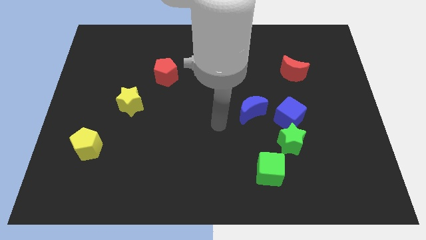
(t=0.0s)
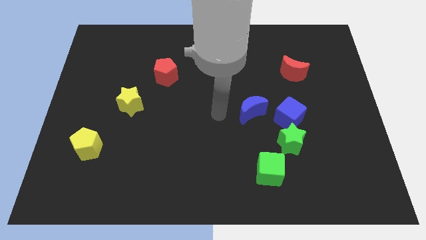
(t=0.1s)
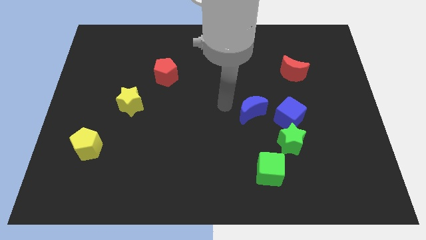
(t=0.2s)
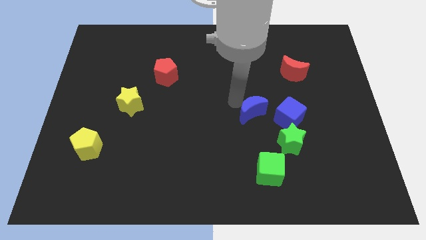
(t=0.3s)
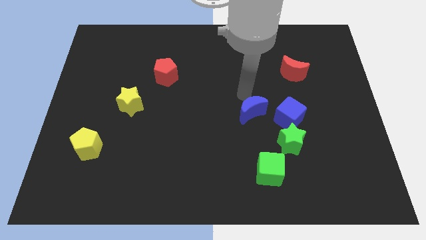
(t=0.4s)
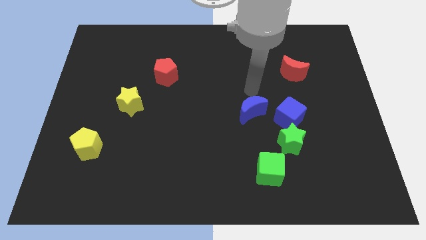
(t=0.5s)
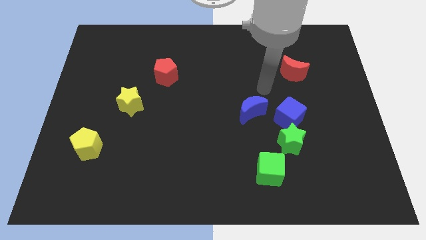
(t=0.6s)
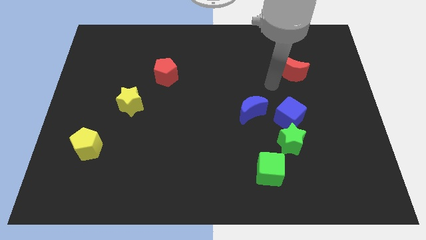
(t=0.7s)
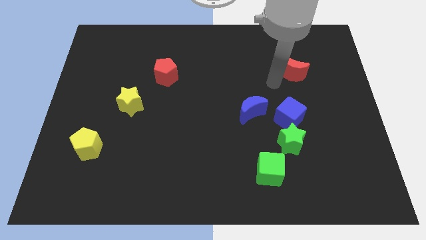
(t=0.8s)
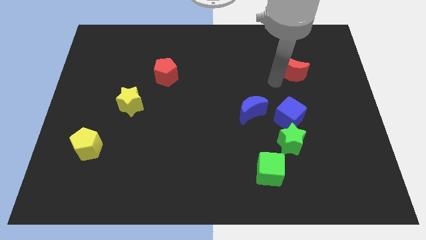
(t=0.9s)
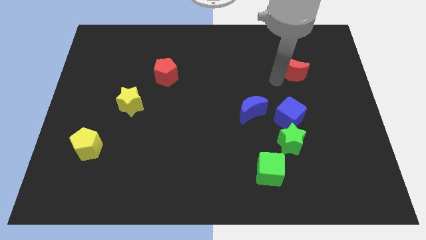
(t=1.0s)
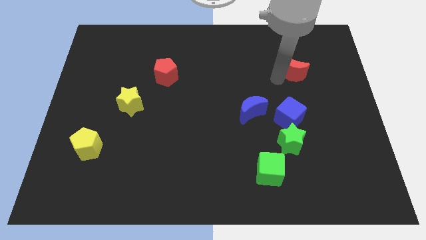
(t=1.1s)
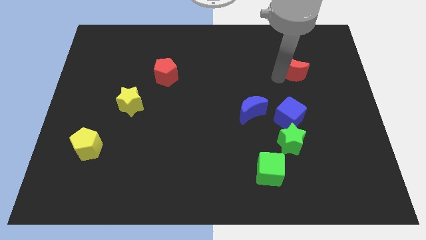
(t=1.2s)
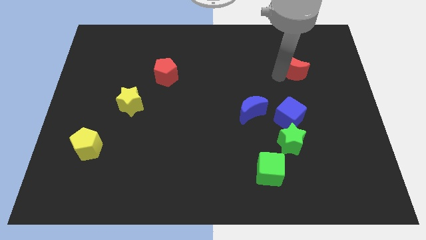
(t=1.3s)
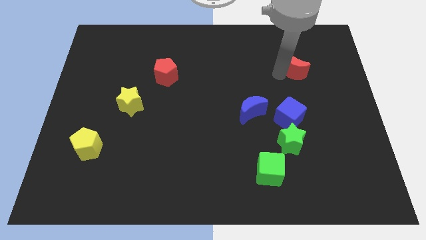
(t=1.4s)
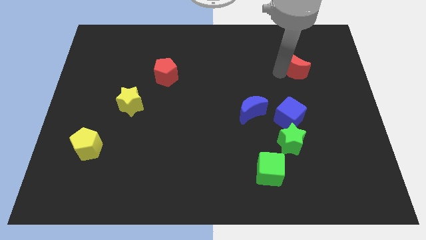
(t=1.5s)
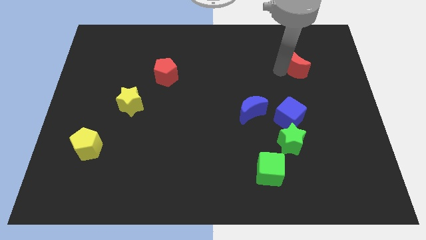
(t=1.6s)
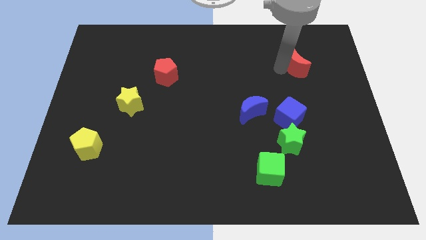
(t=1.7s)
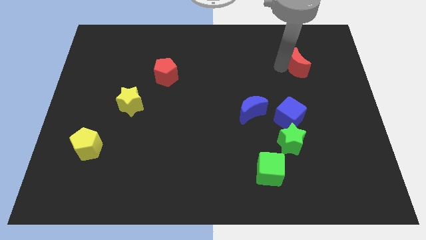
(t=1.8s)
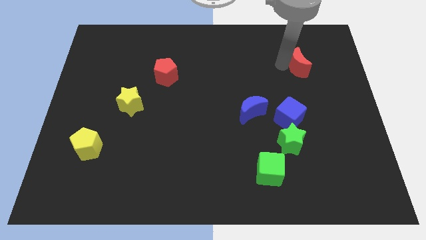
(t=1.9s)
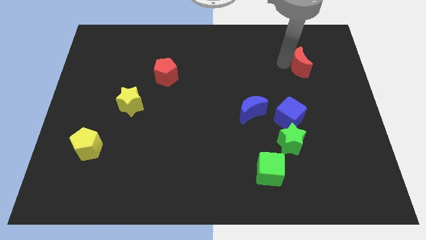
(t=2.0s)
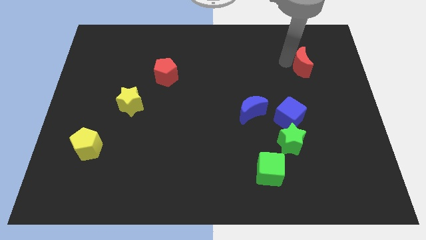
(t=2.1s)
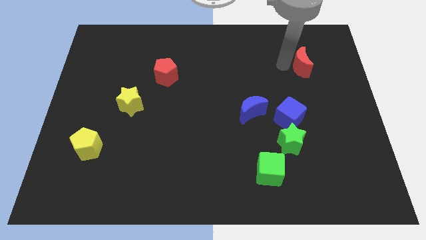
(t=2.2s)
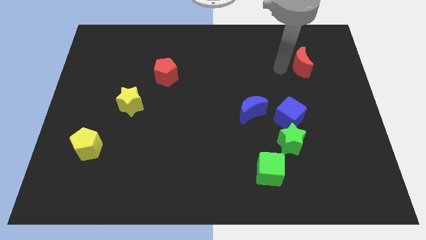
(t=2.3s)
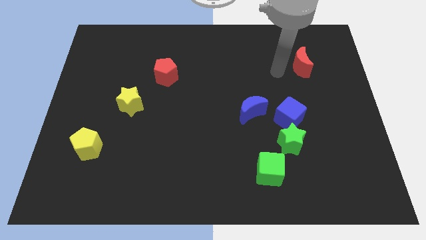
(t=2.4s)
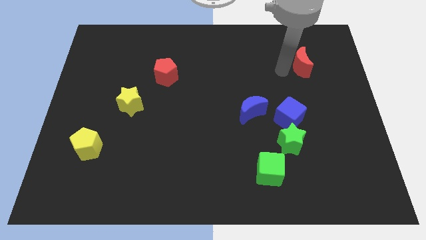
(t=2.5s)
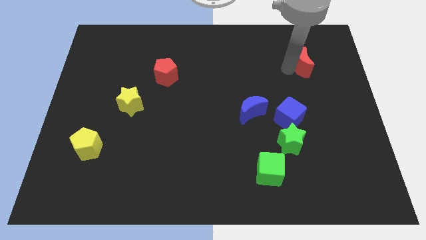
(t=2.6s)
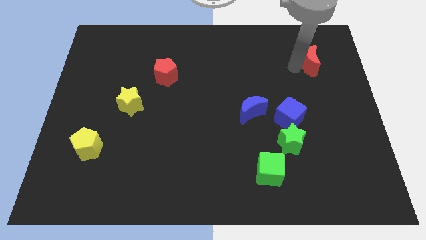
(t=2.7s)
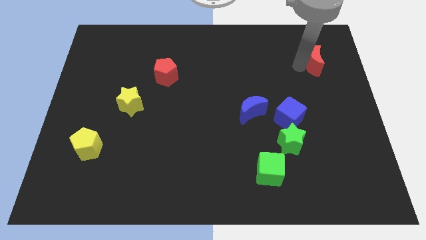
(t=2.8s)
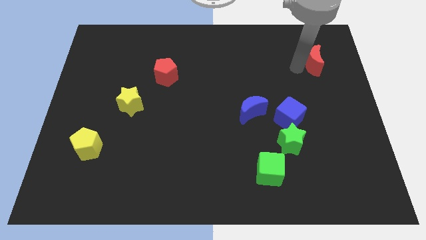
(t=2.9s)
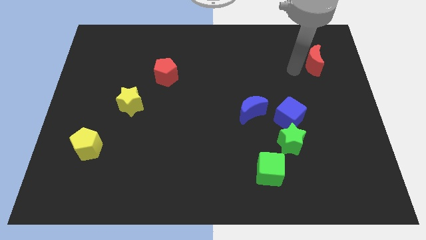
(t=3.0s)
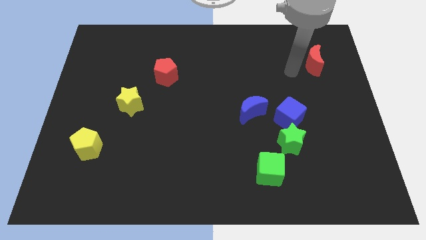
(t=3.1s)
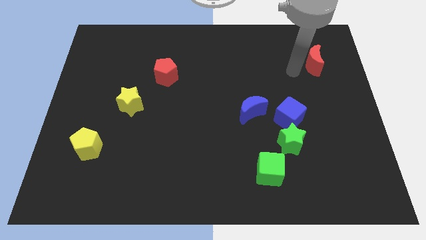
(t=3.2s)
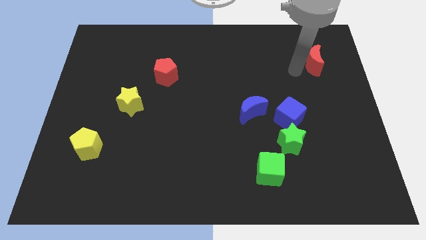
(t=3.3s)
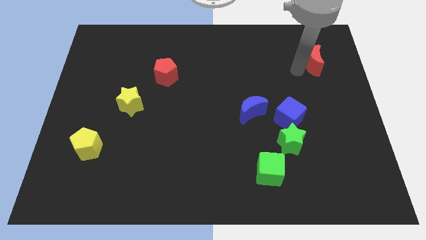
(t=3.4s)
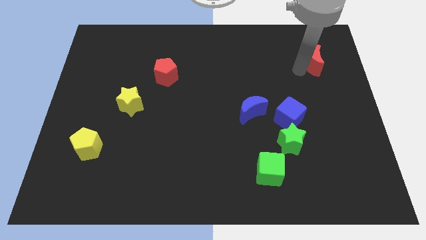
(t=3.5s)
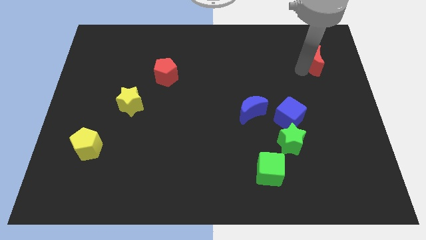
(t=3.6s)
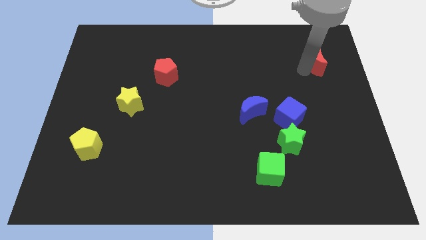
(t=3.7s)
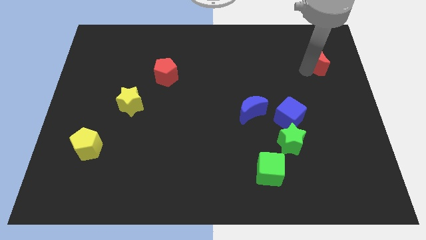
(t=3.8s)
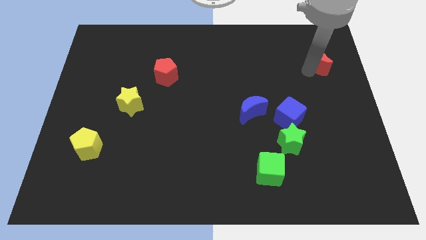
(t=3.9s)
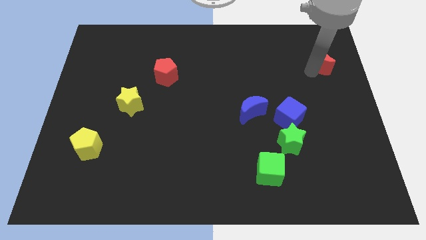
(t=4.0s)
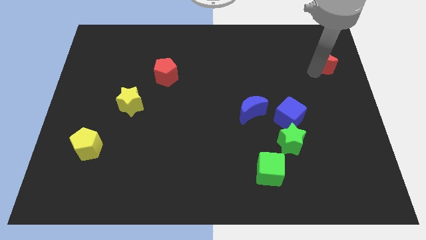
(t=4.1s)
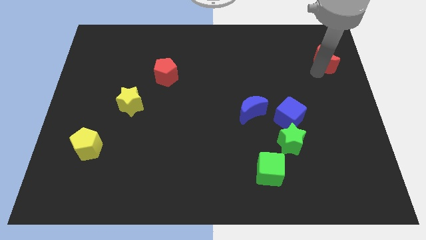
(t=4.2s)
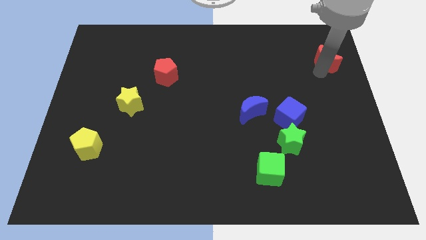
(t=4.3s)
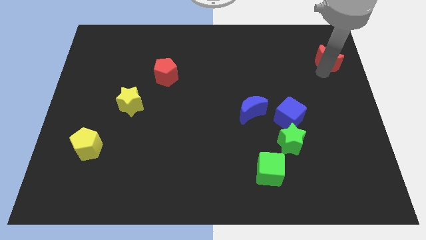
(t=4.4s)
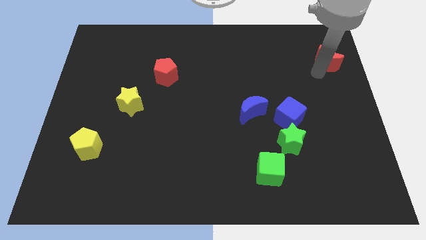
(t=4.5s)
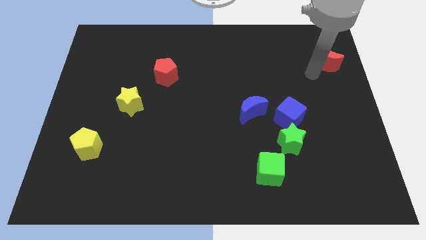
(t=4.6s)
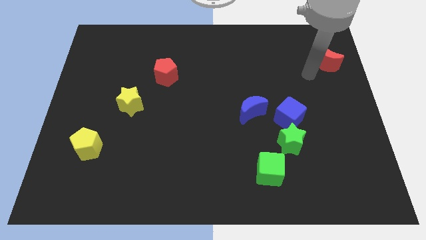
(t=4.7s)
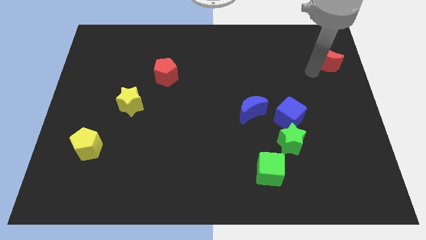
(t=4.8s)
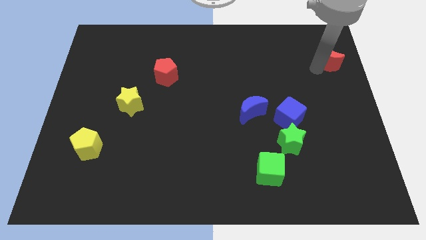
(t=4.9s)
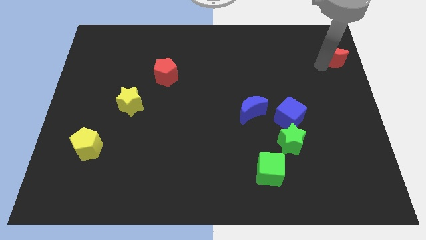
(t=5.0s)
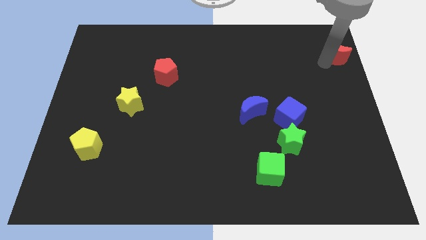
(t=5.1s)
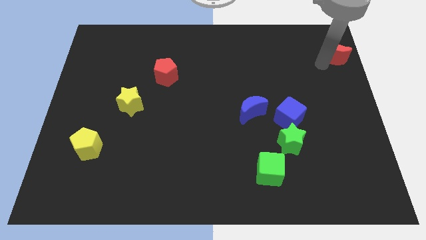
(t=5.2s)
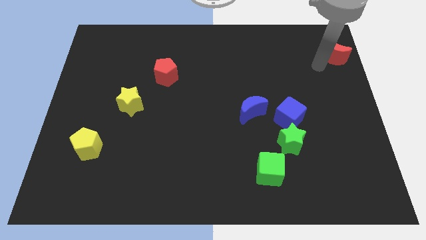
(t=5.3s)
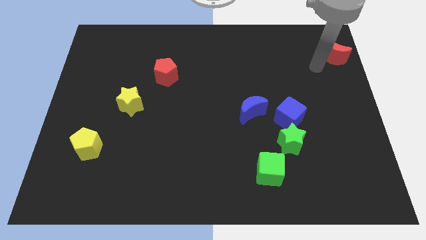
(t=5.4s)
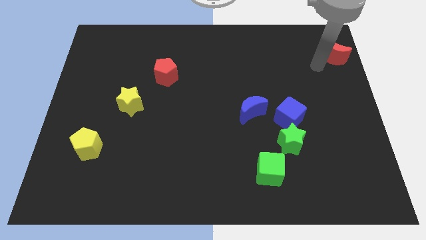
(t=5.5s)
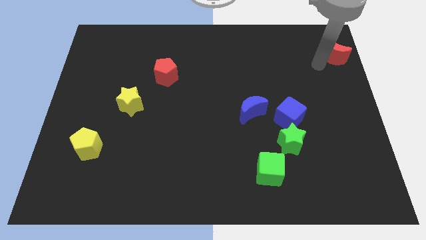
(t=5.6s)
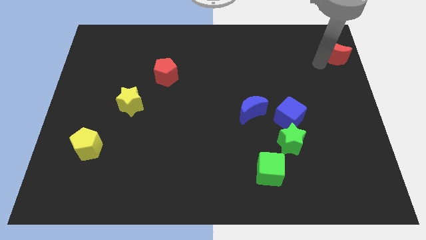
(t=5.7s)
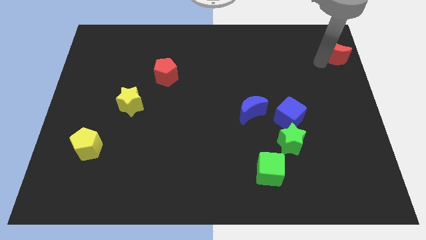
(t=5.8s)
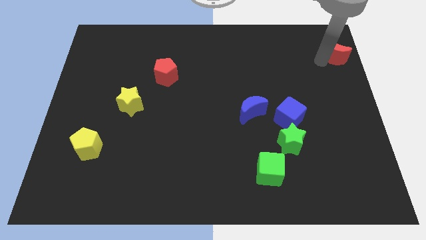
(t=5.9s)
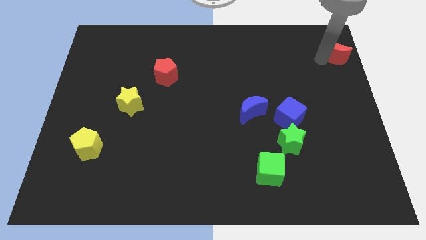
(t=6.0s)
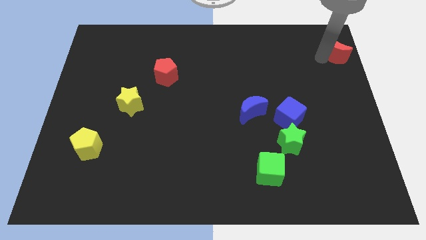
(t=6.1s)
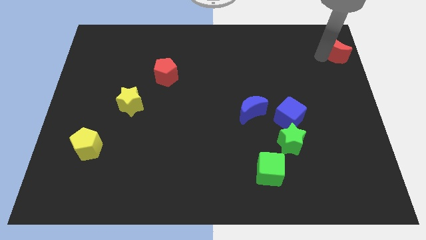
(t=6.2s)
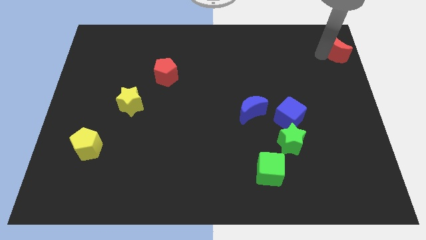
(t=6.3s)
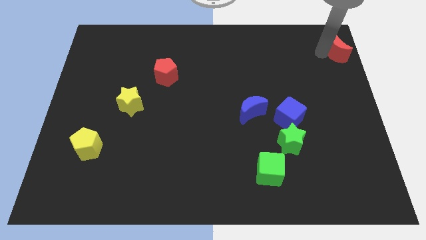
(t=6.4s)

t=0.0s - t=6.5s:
slide the red moon to the top right
